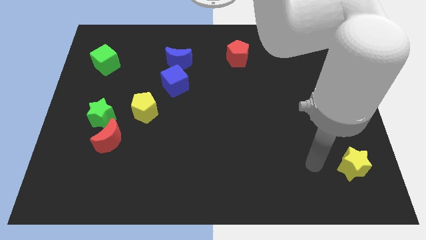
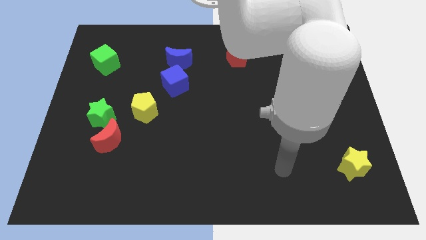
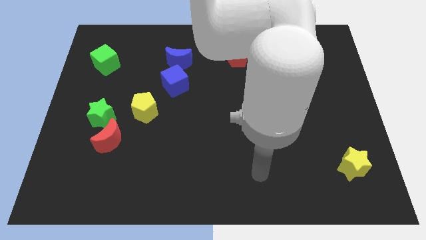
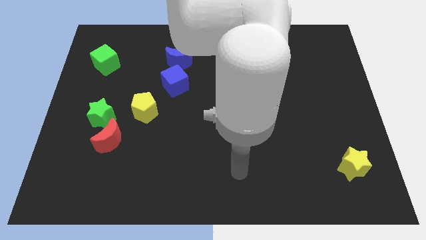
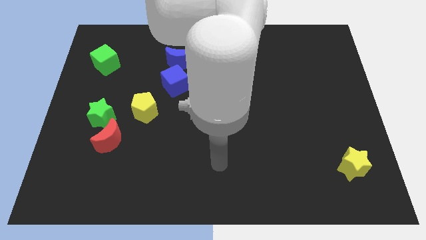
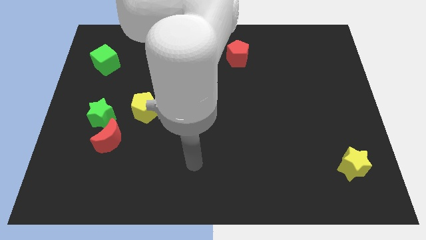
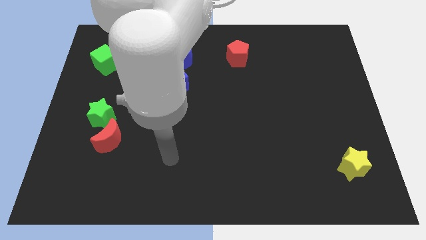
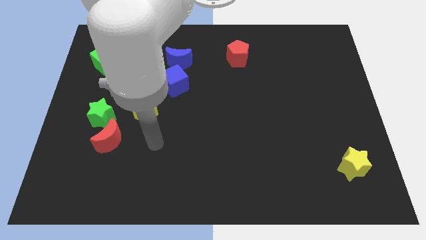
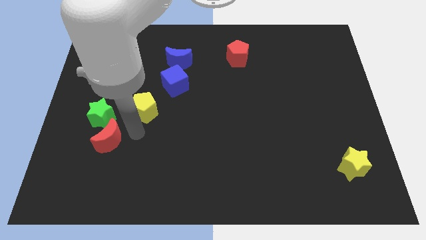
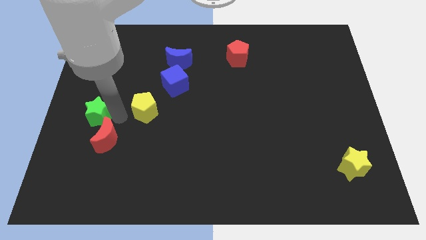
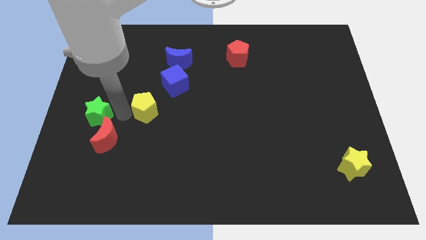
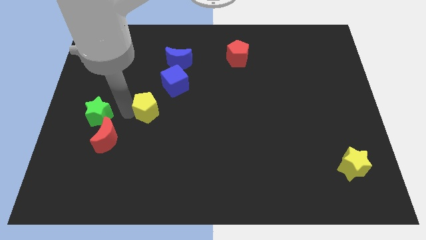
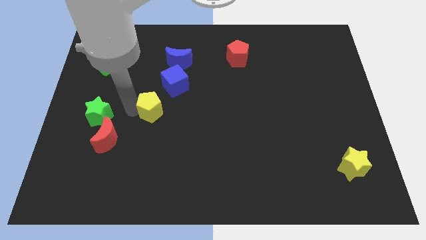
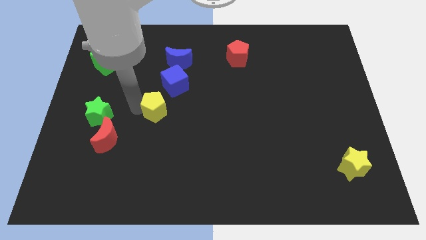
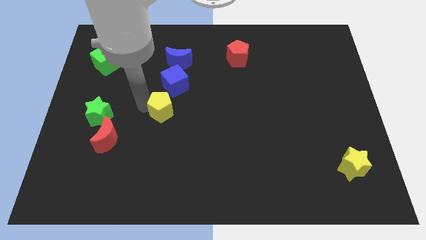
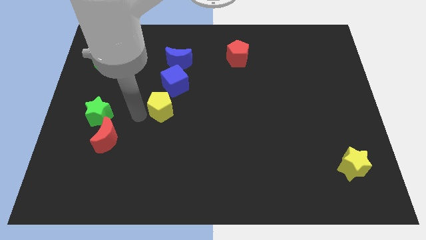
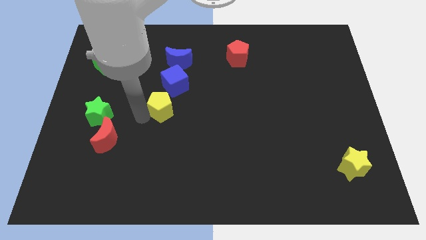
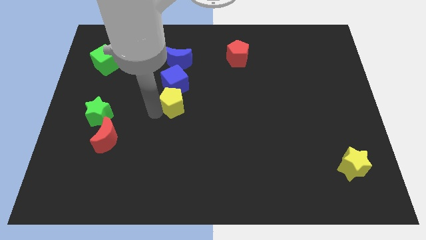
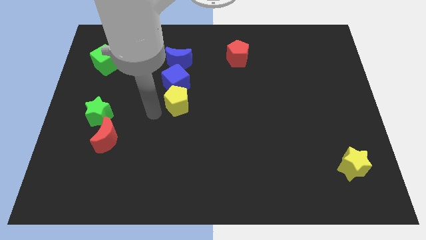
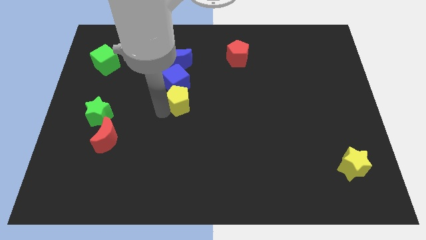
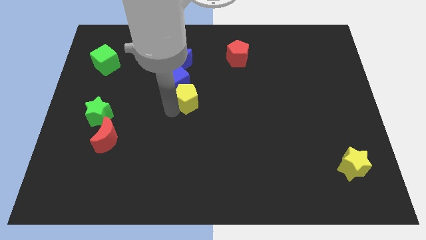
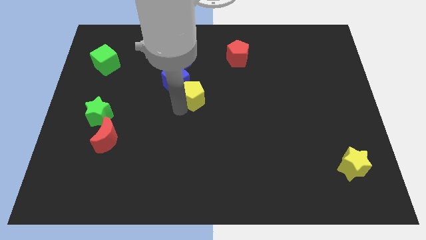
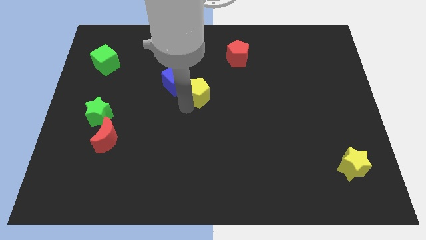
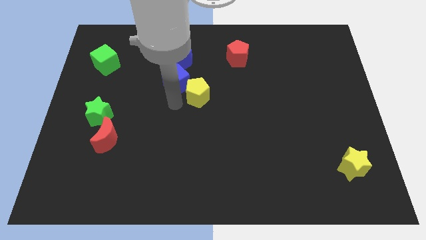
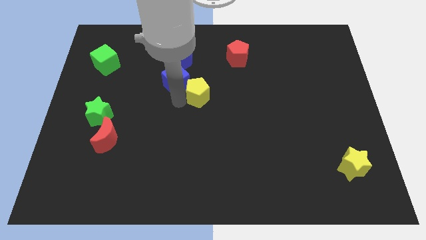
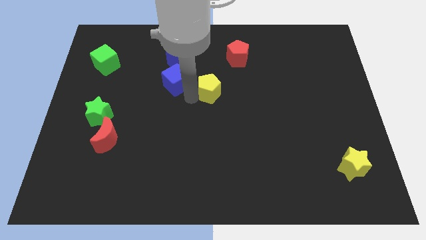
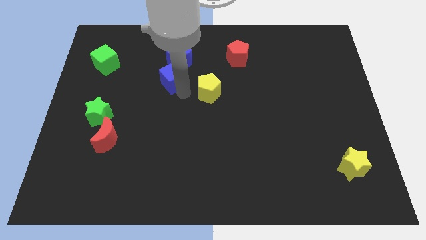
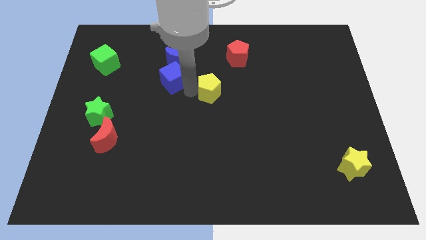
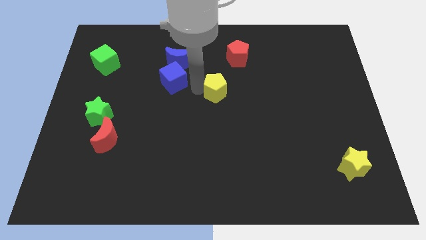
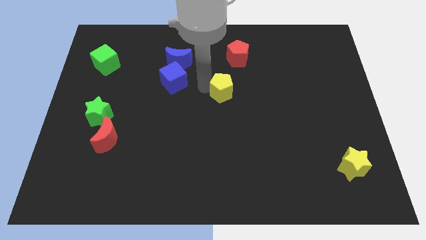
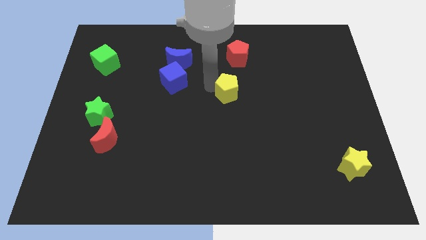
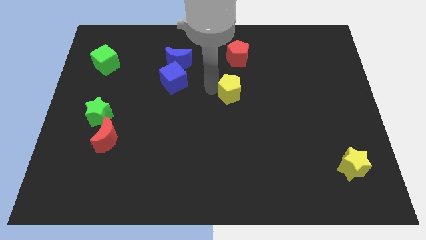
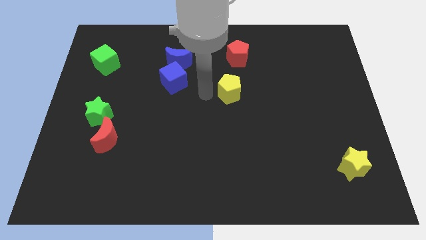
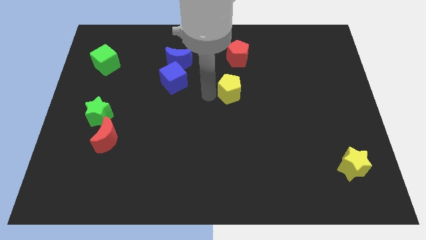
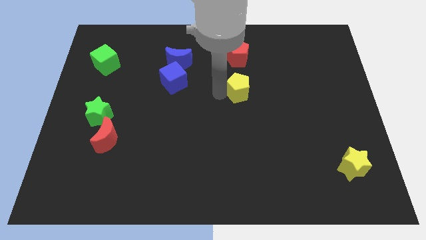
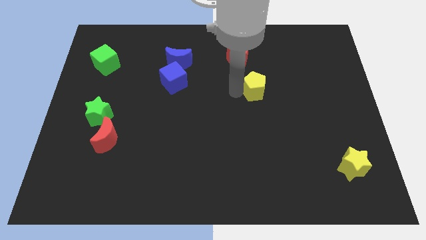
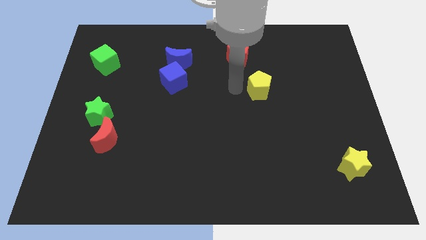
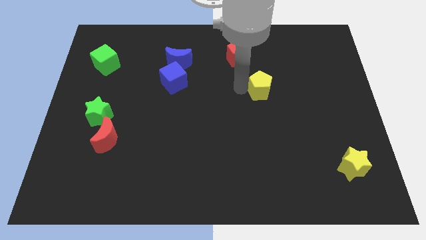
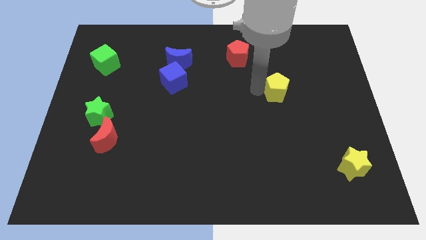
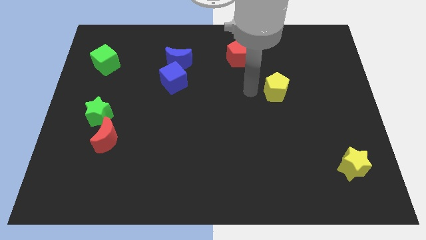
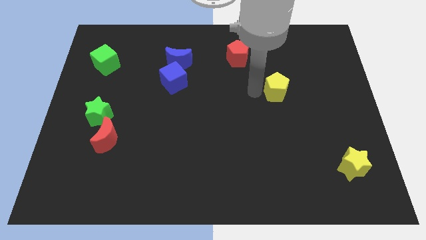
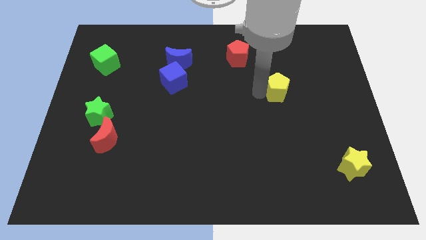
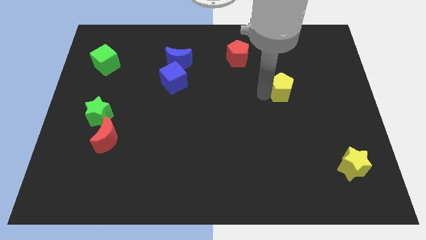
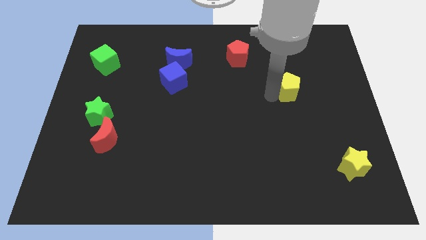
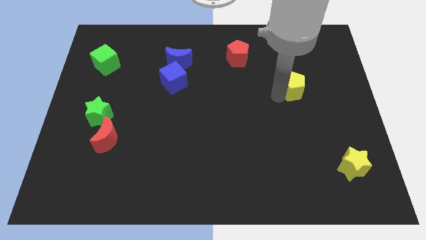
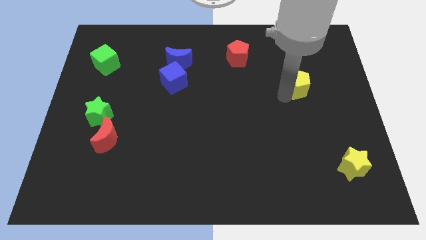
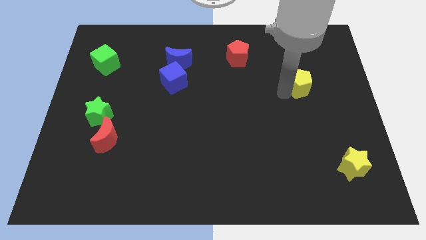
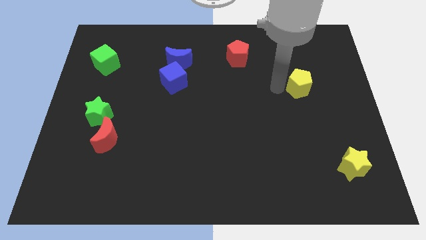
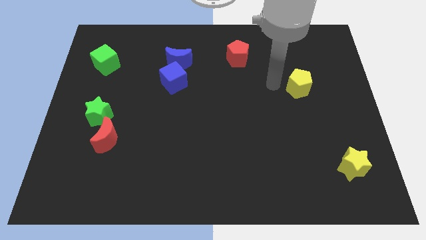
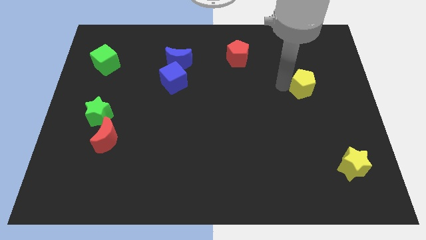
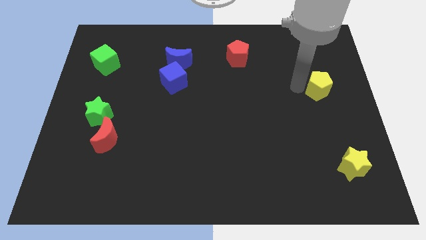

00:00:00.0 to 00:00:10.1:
move the yellow pentagon to the right side of the board

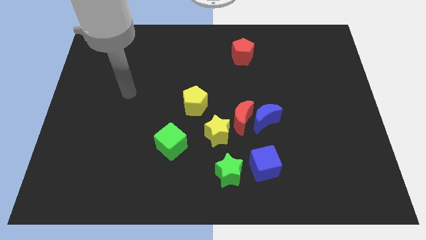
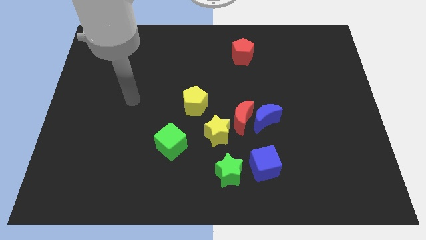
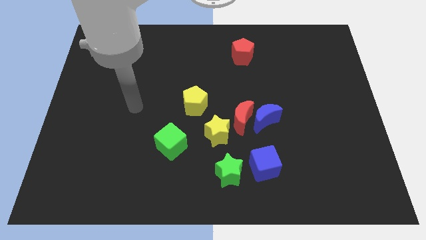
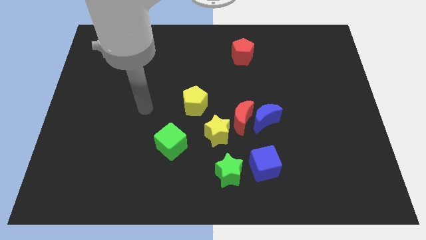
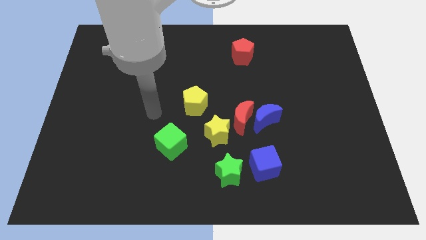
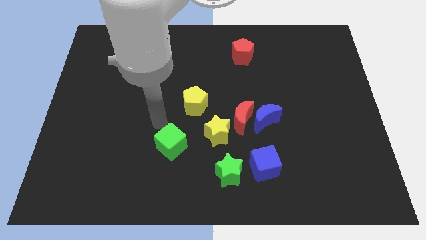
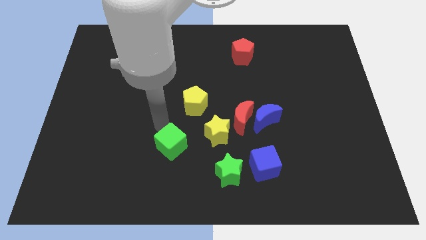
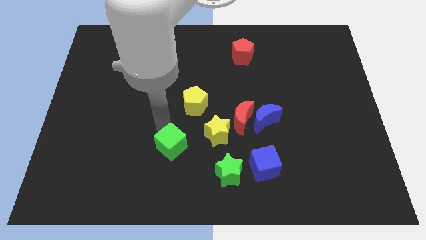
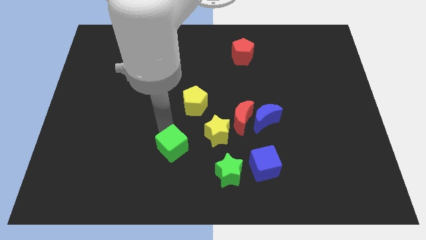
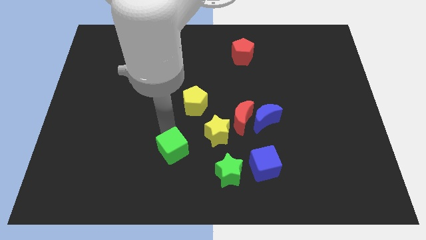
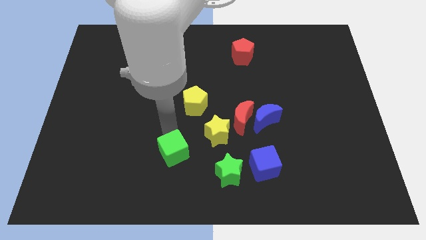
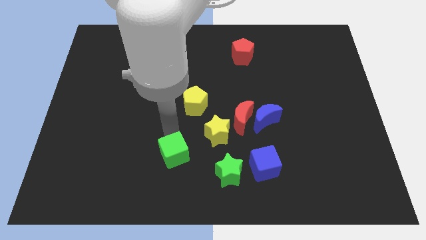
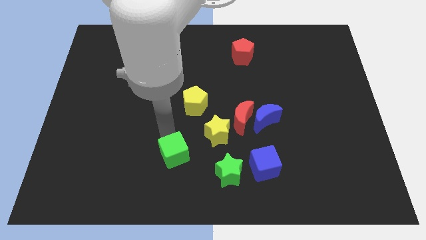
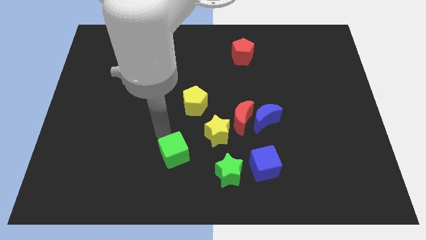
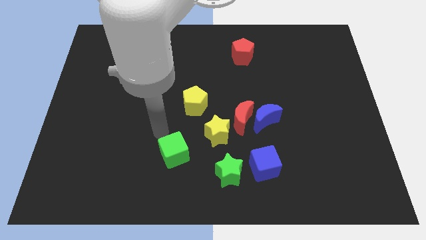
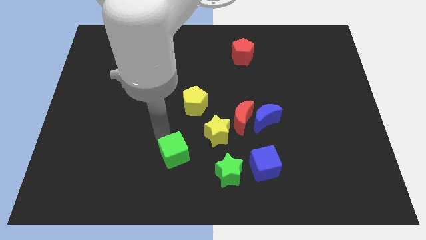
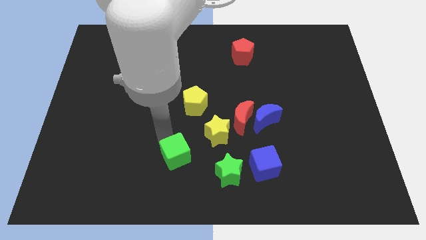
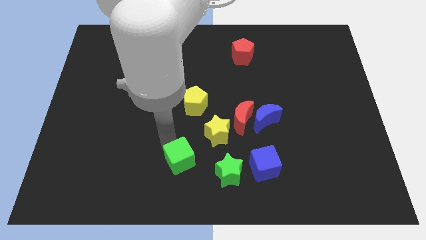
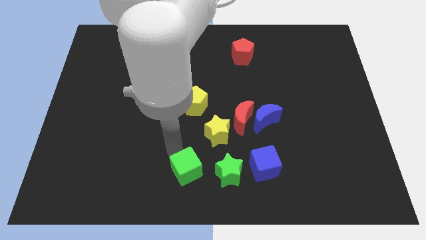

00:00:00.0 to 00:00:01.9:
put the green cube to the bottom side

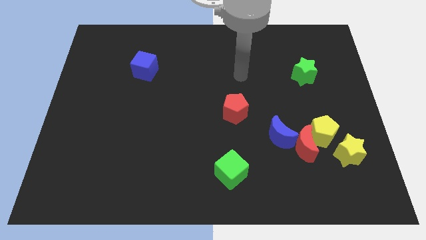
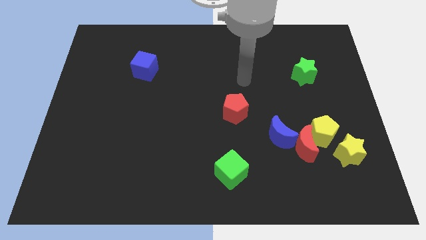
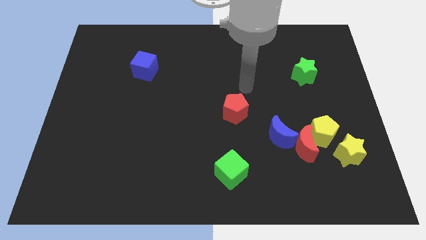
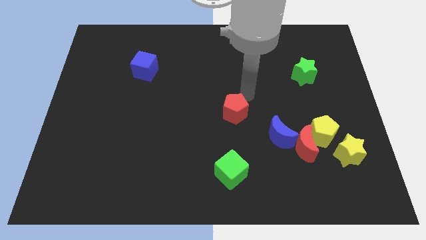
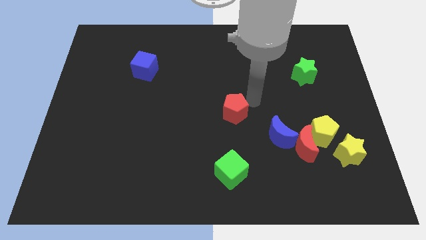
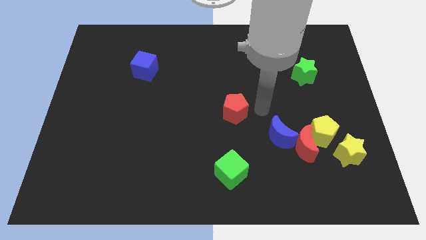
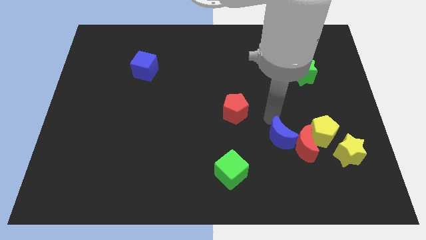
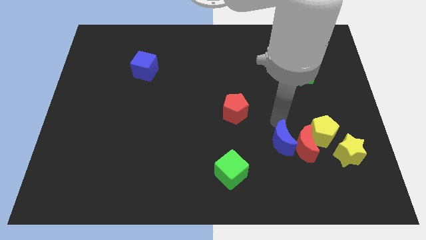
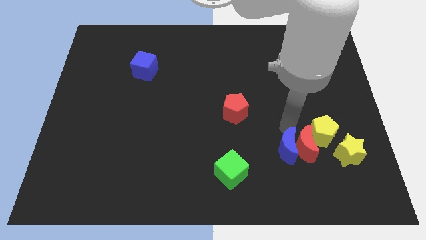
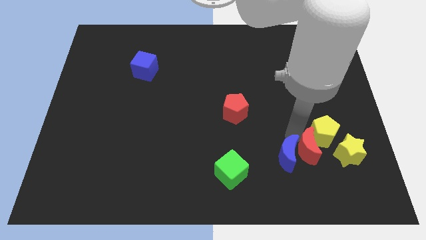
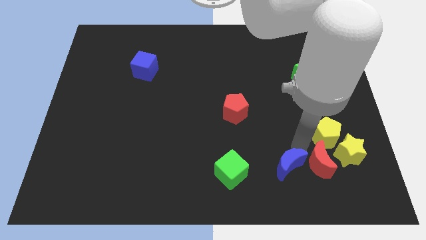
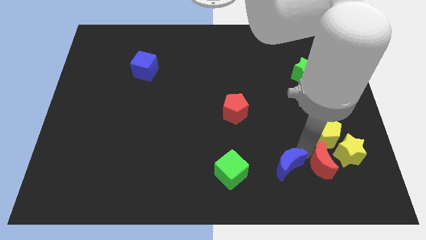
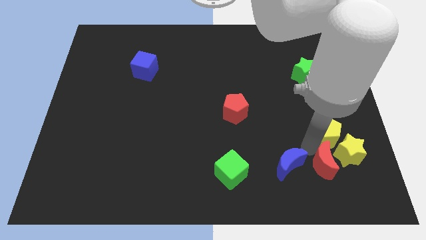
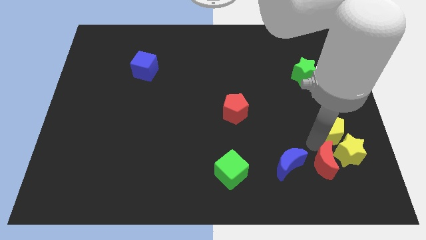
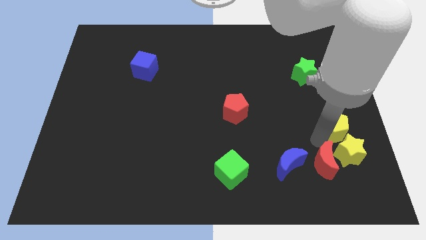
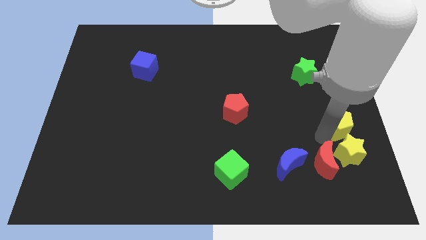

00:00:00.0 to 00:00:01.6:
slide the yellow pentagon to the right side
